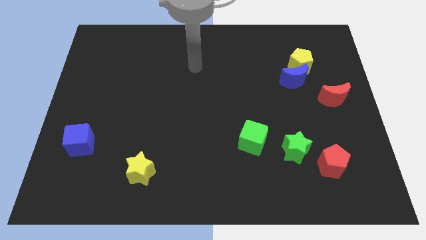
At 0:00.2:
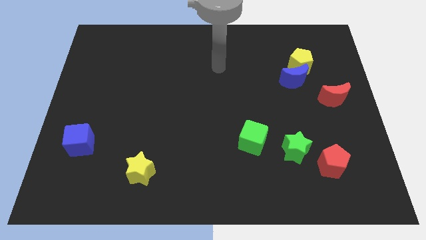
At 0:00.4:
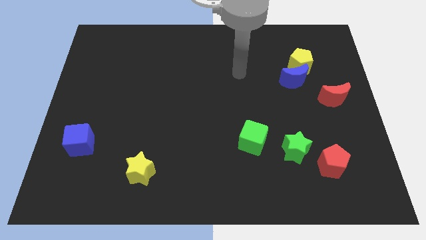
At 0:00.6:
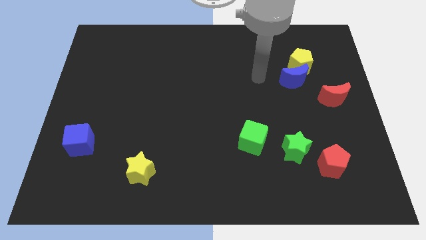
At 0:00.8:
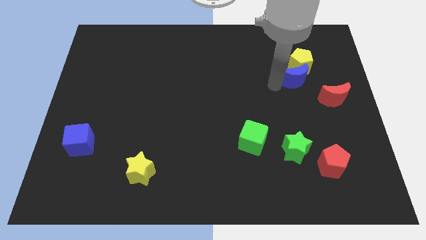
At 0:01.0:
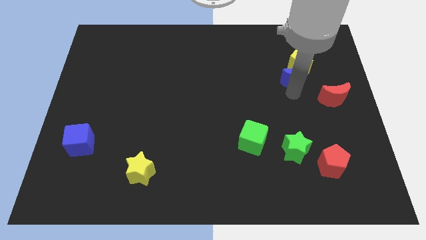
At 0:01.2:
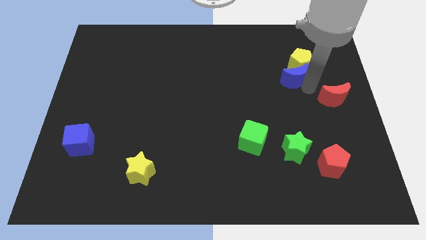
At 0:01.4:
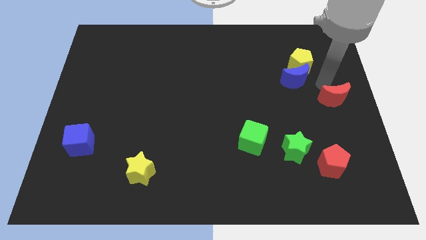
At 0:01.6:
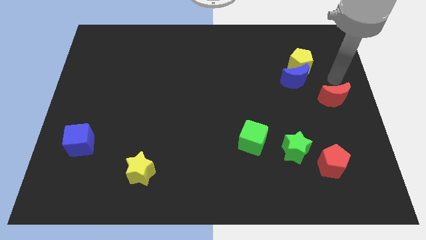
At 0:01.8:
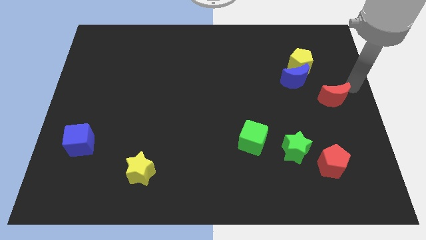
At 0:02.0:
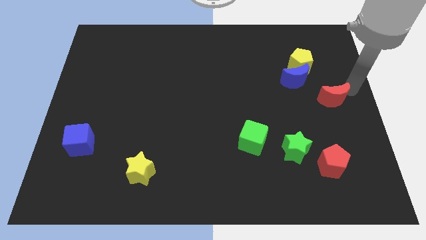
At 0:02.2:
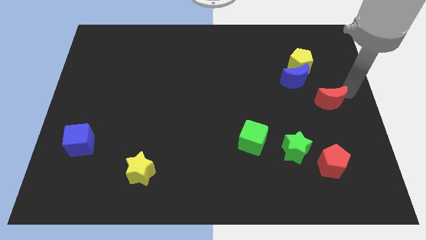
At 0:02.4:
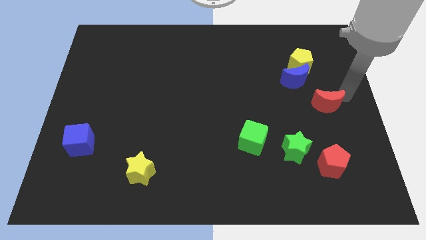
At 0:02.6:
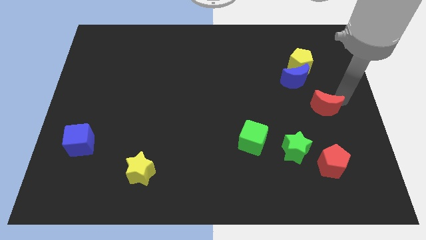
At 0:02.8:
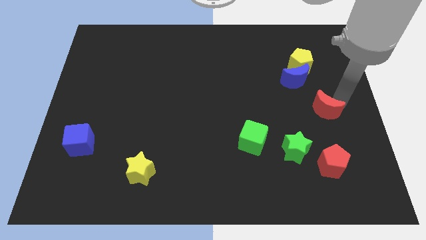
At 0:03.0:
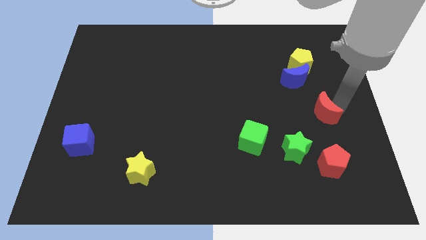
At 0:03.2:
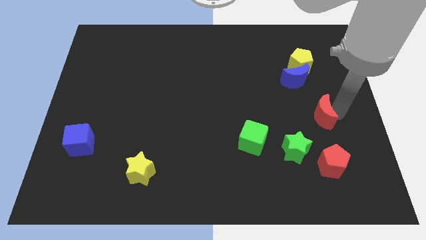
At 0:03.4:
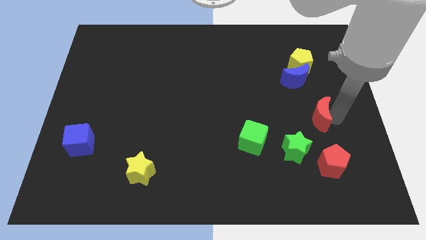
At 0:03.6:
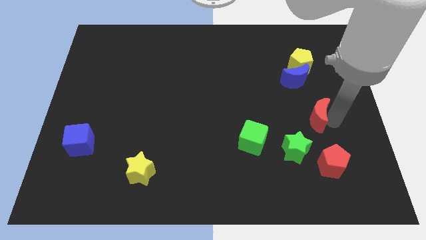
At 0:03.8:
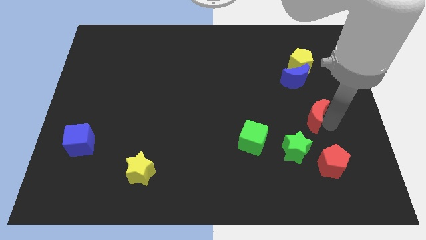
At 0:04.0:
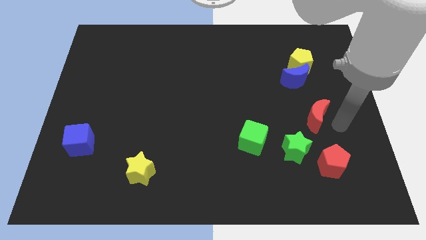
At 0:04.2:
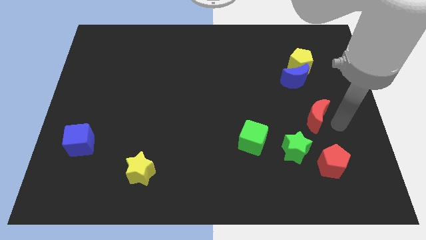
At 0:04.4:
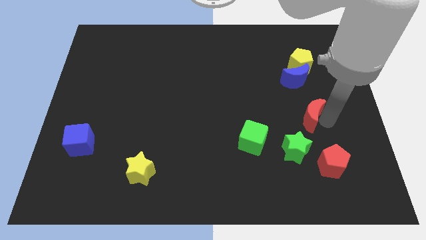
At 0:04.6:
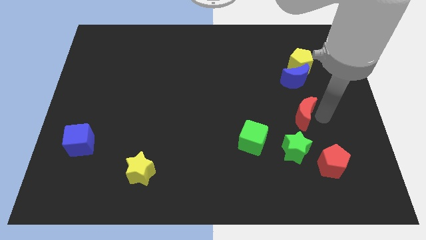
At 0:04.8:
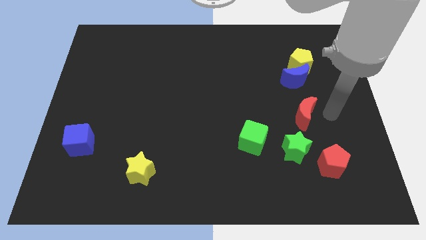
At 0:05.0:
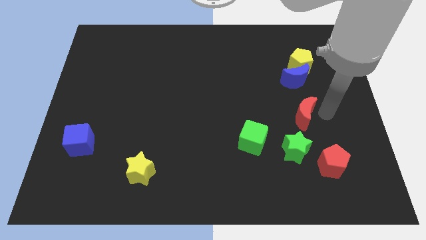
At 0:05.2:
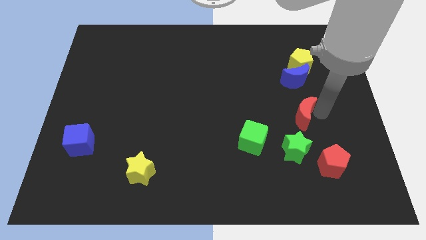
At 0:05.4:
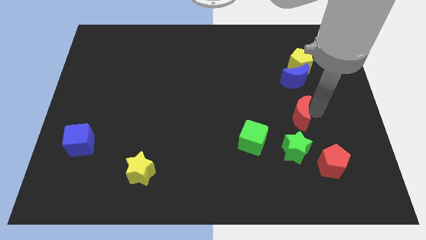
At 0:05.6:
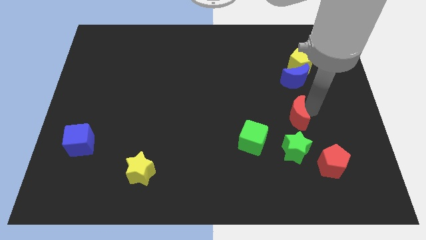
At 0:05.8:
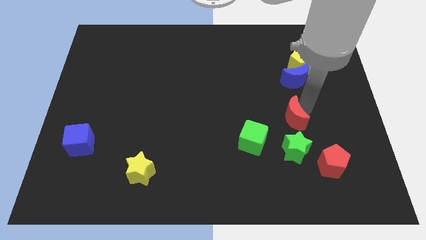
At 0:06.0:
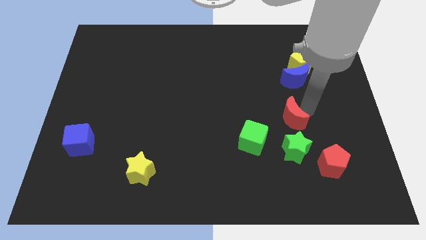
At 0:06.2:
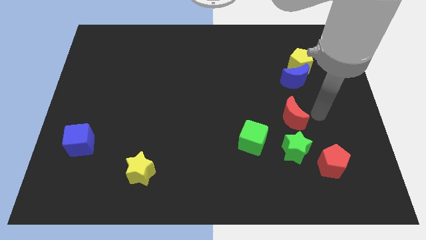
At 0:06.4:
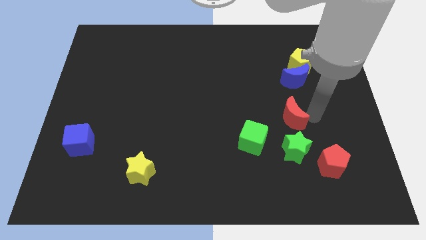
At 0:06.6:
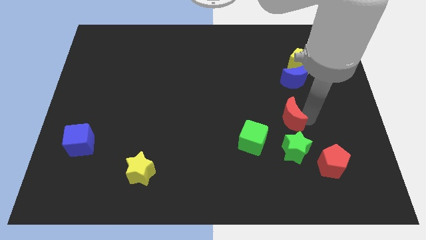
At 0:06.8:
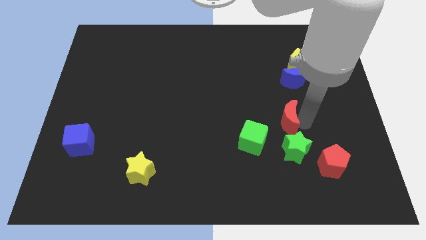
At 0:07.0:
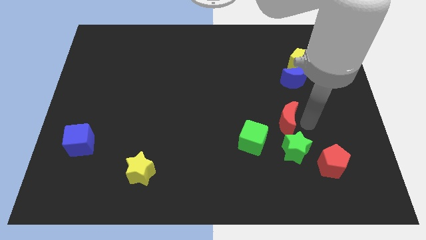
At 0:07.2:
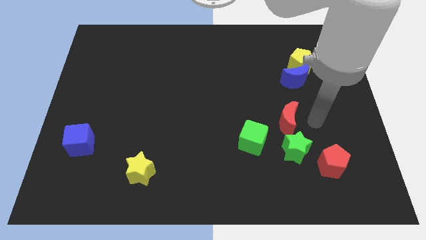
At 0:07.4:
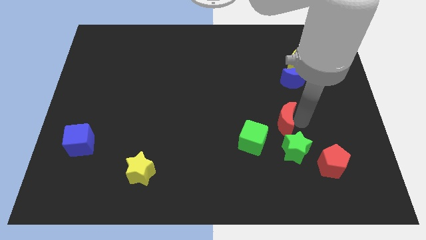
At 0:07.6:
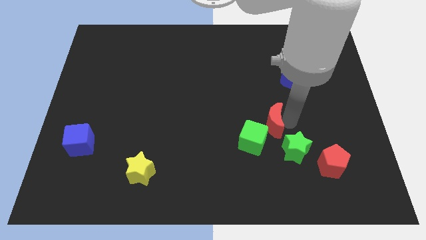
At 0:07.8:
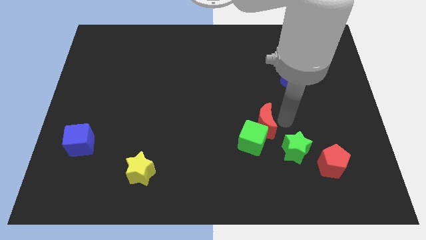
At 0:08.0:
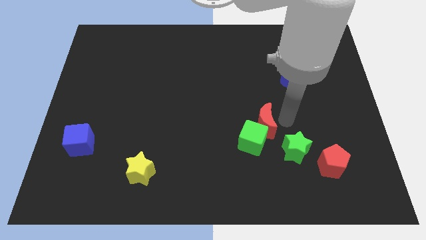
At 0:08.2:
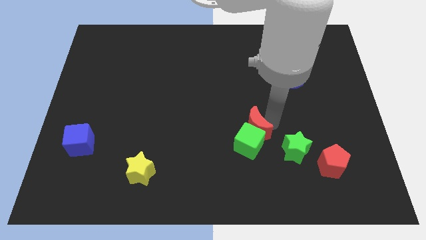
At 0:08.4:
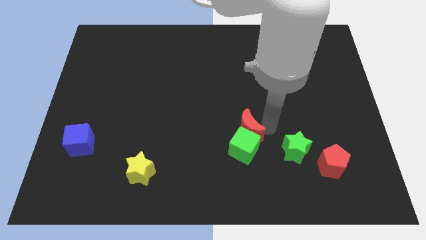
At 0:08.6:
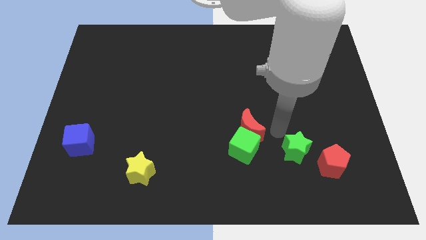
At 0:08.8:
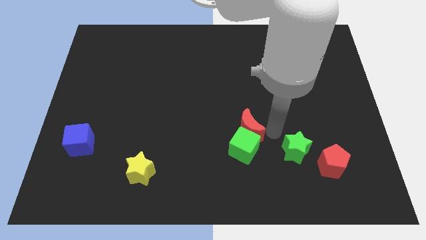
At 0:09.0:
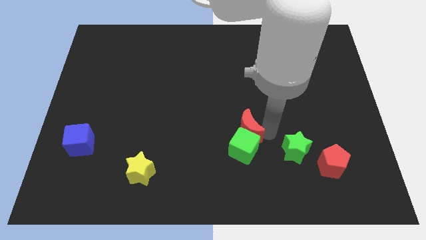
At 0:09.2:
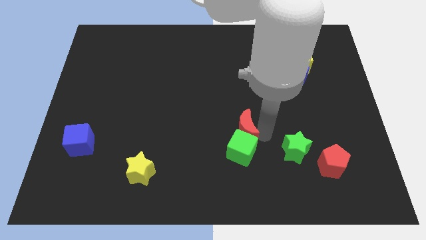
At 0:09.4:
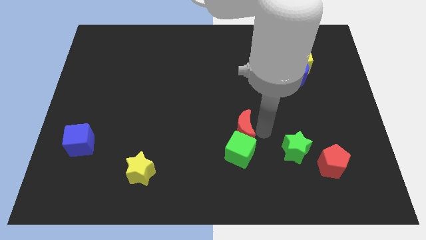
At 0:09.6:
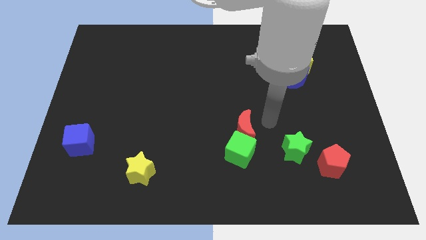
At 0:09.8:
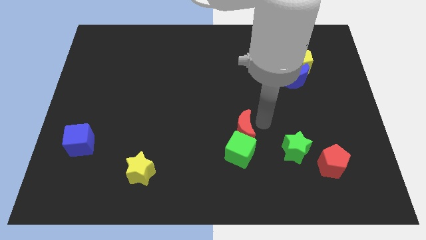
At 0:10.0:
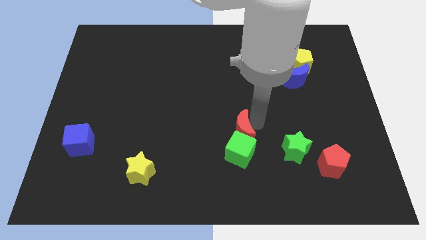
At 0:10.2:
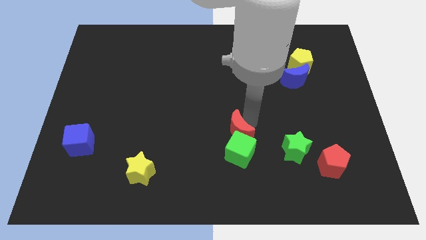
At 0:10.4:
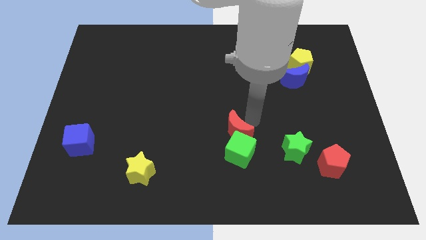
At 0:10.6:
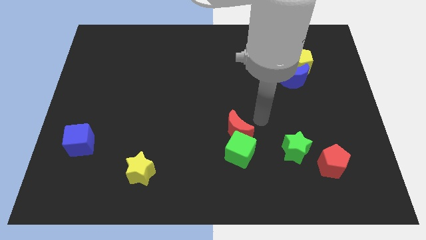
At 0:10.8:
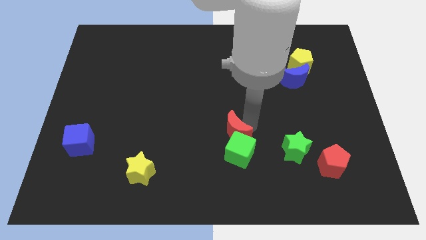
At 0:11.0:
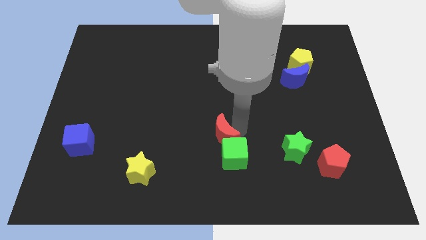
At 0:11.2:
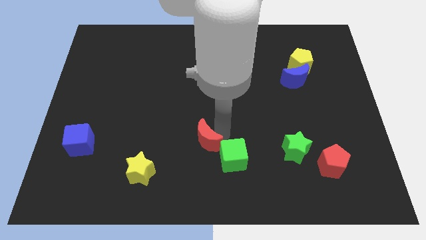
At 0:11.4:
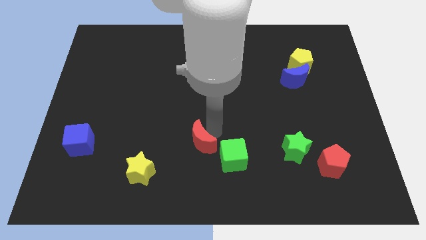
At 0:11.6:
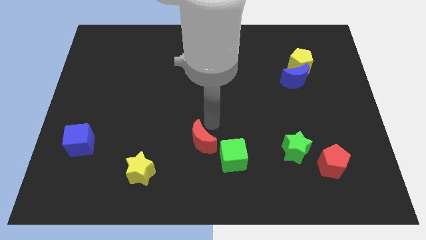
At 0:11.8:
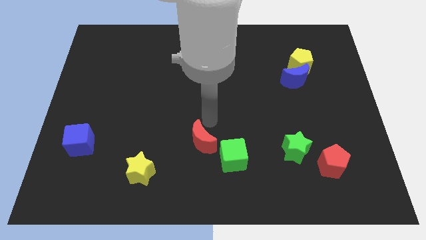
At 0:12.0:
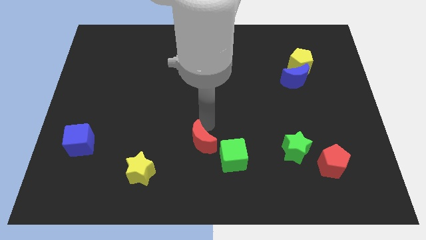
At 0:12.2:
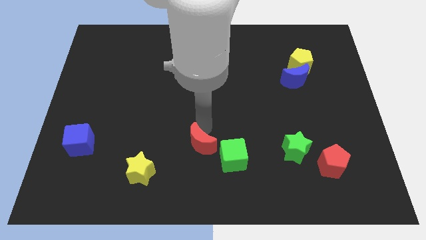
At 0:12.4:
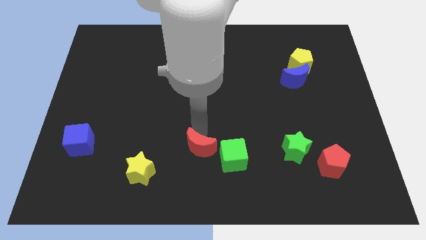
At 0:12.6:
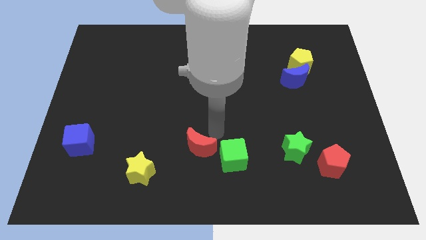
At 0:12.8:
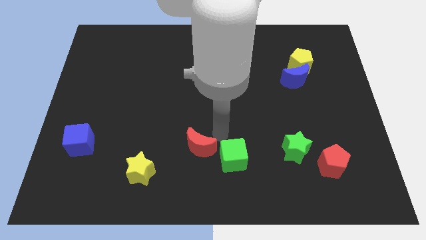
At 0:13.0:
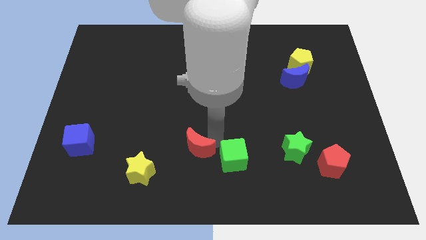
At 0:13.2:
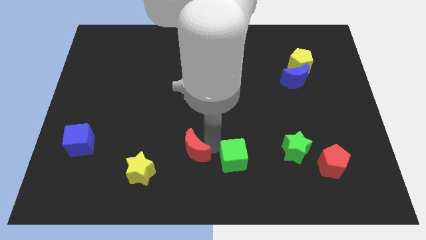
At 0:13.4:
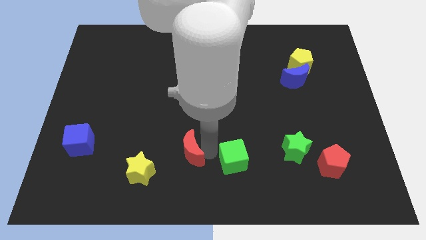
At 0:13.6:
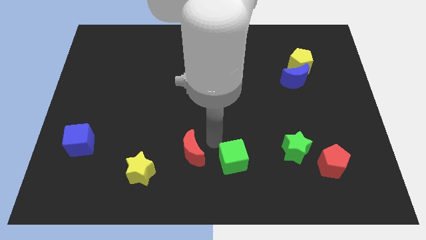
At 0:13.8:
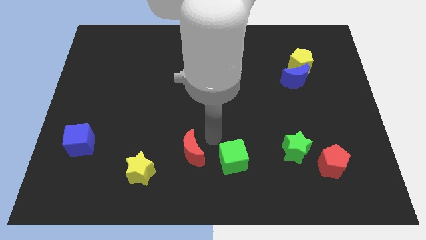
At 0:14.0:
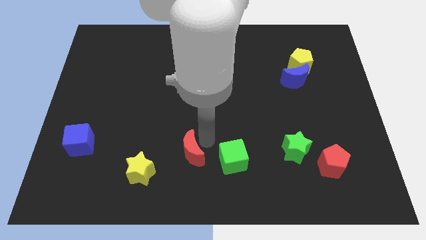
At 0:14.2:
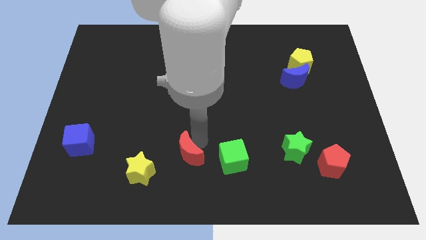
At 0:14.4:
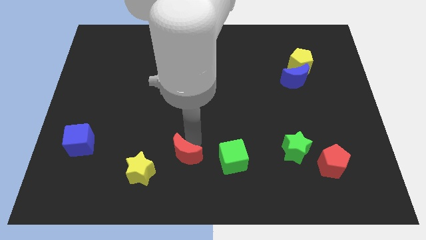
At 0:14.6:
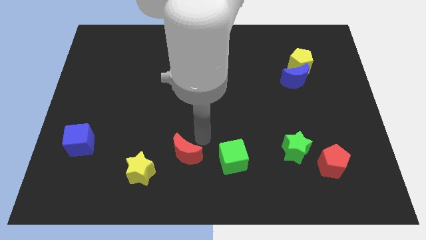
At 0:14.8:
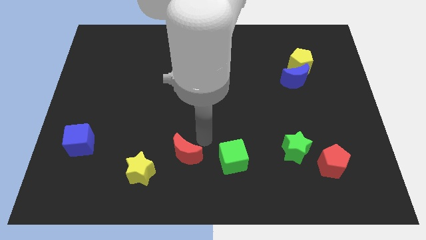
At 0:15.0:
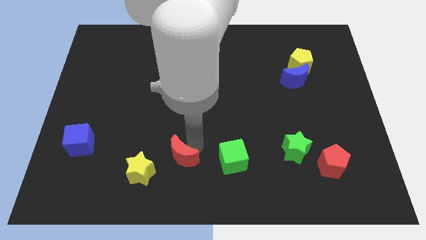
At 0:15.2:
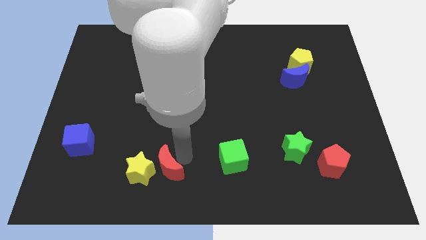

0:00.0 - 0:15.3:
slide the red moon close to the yellow star
